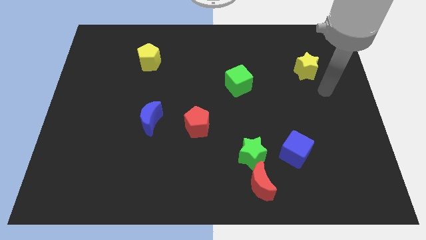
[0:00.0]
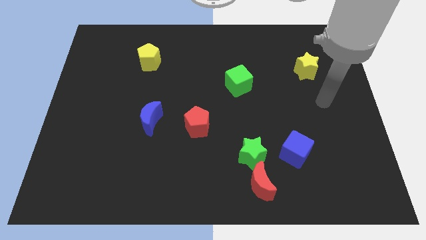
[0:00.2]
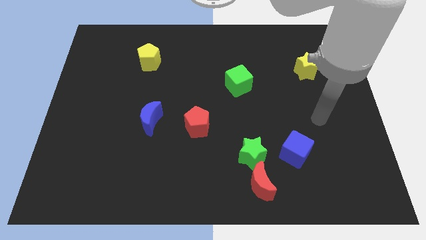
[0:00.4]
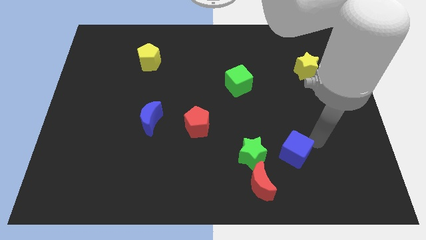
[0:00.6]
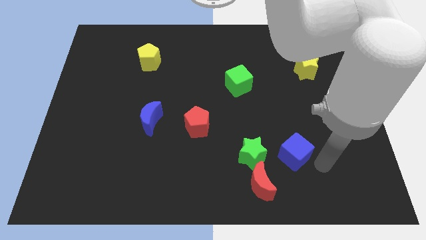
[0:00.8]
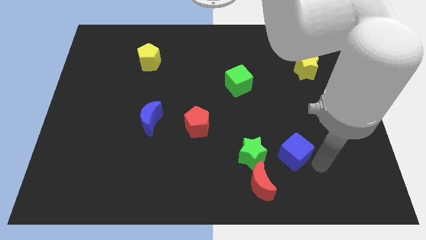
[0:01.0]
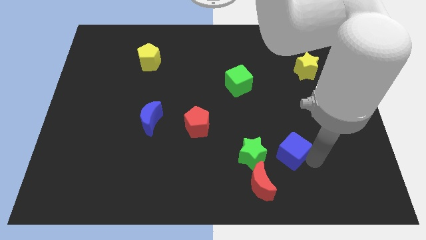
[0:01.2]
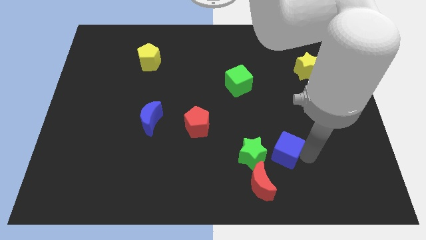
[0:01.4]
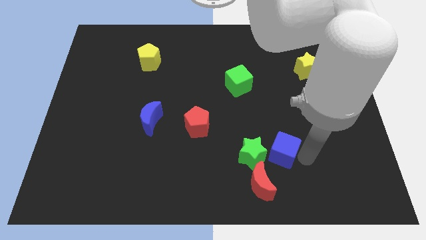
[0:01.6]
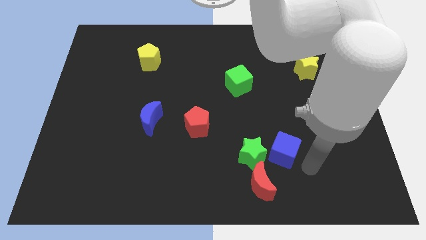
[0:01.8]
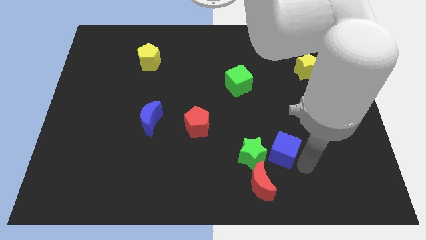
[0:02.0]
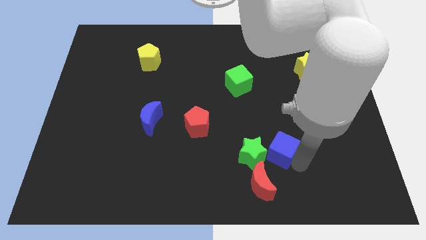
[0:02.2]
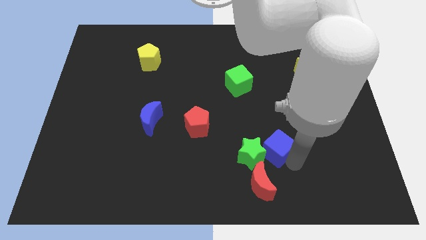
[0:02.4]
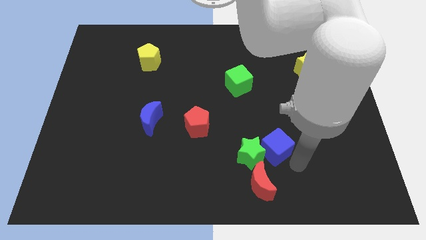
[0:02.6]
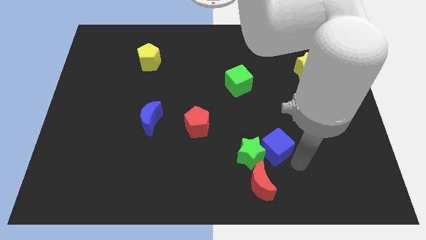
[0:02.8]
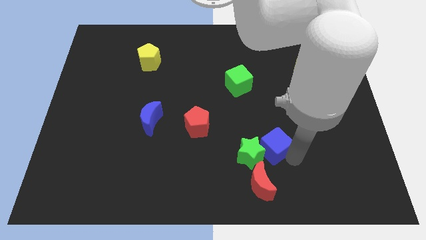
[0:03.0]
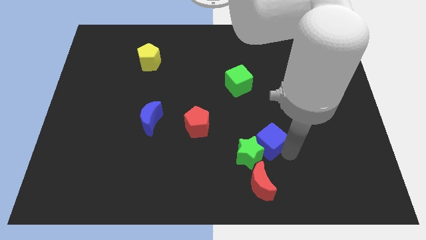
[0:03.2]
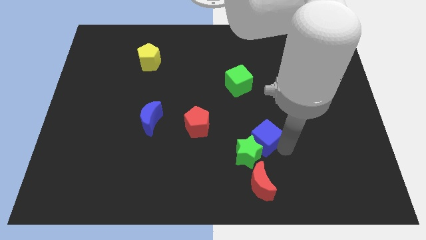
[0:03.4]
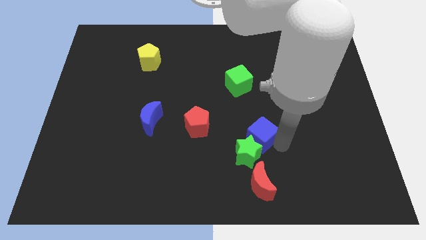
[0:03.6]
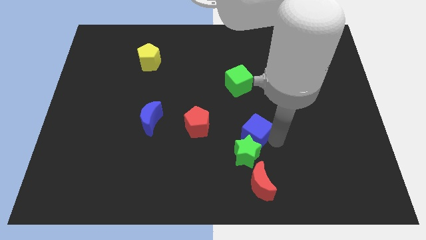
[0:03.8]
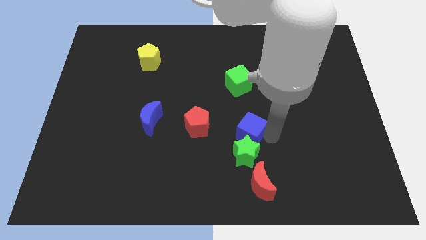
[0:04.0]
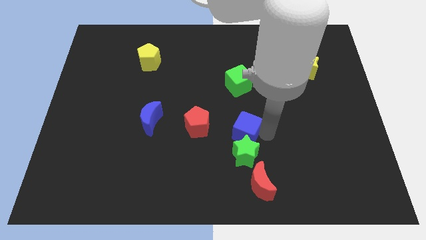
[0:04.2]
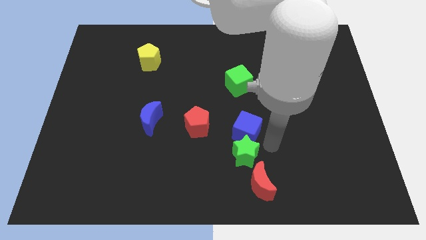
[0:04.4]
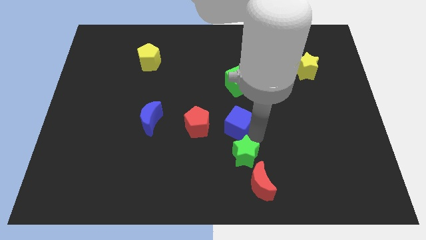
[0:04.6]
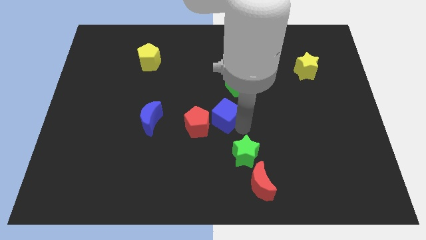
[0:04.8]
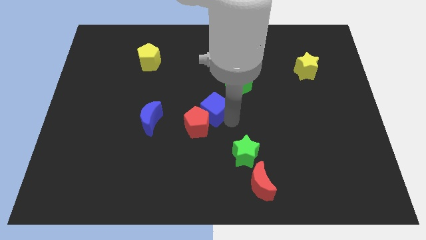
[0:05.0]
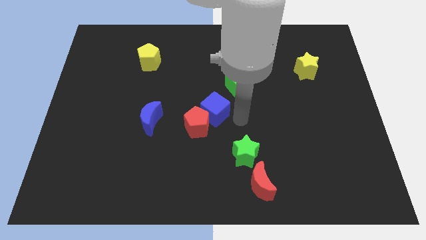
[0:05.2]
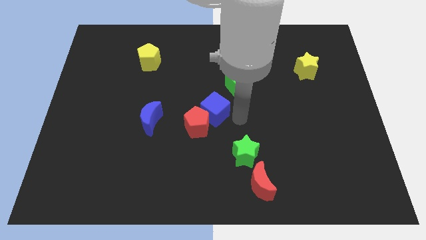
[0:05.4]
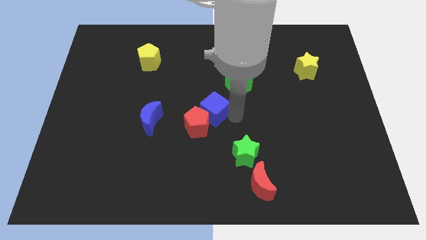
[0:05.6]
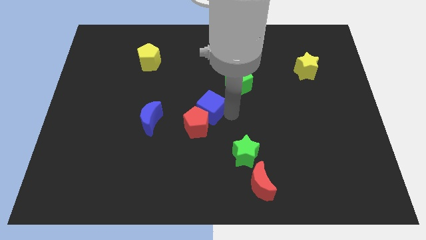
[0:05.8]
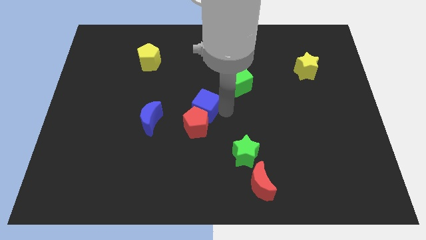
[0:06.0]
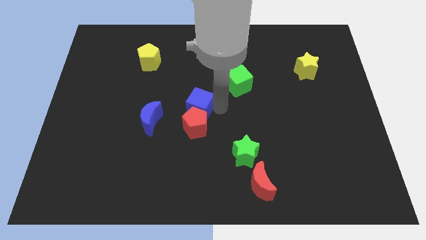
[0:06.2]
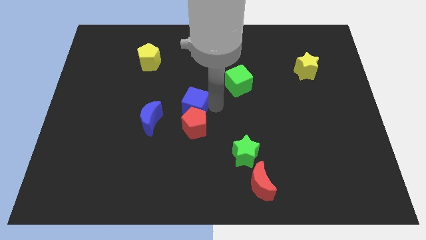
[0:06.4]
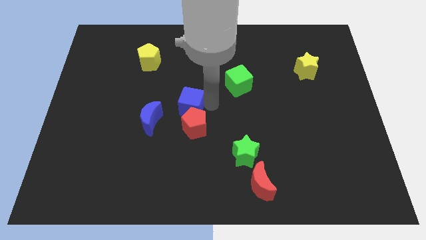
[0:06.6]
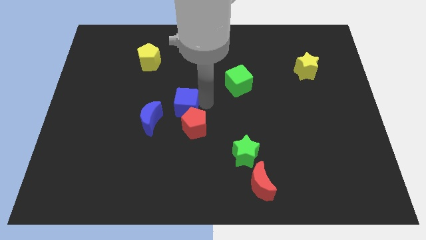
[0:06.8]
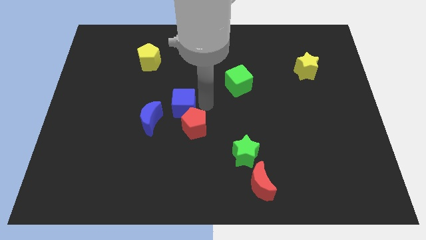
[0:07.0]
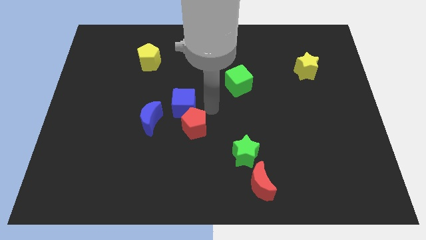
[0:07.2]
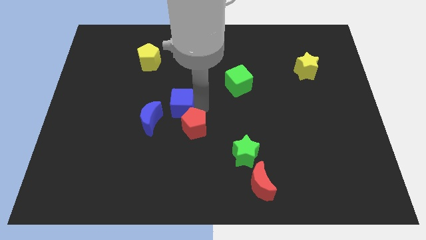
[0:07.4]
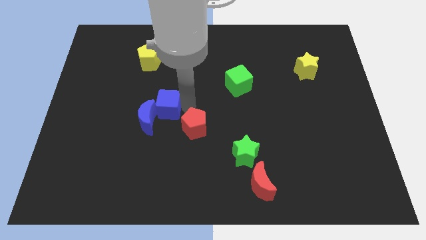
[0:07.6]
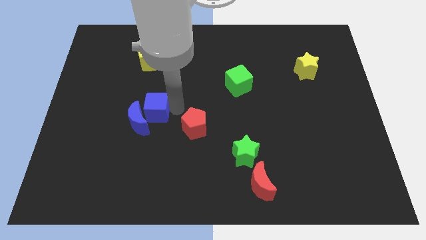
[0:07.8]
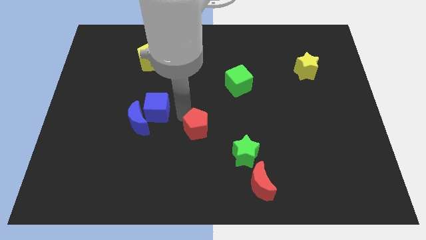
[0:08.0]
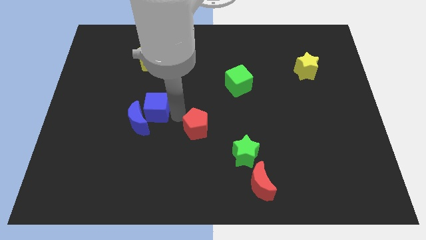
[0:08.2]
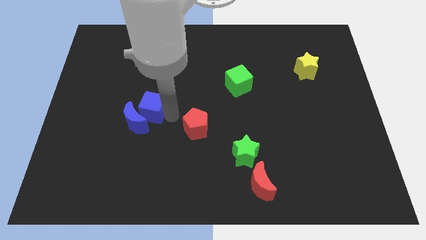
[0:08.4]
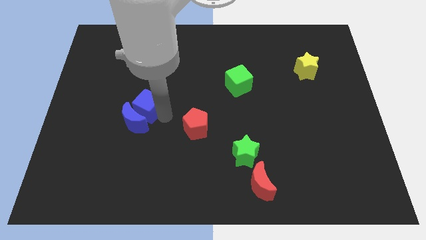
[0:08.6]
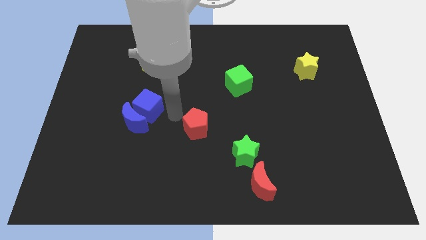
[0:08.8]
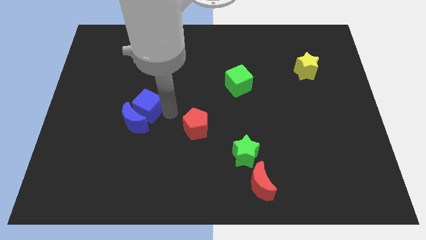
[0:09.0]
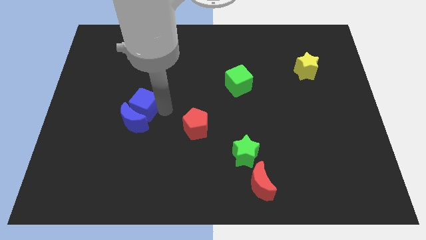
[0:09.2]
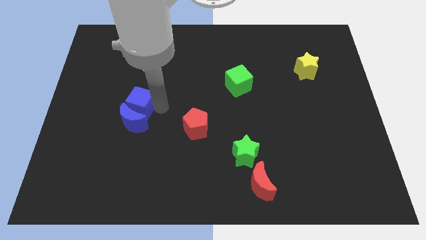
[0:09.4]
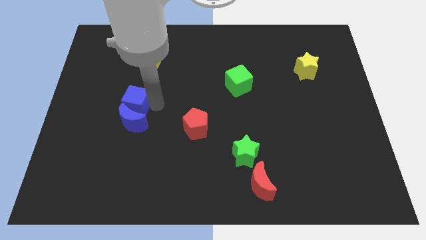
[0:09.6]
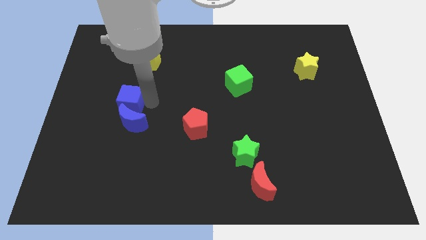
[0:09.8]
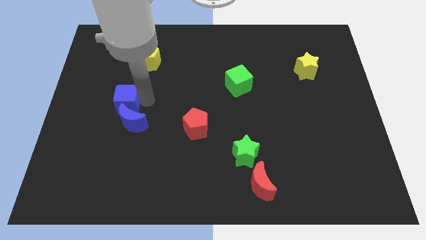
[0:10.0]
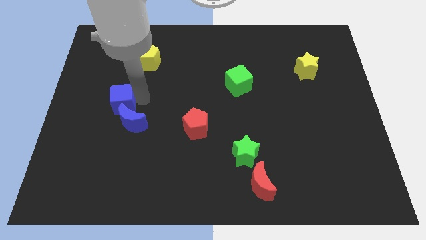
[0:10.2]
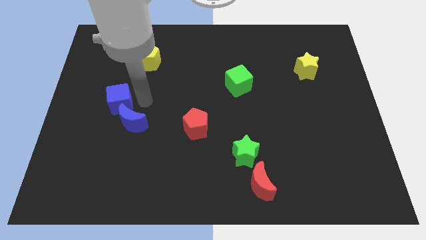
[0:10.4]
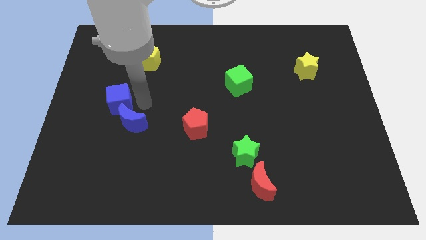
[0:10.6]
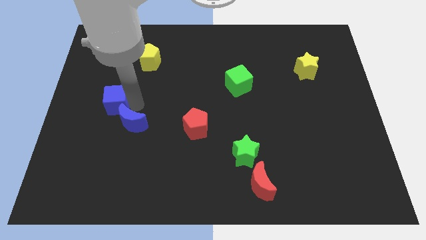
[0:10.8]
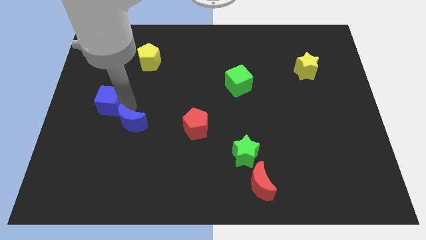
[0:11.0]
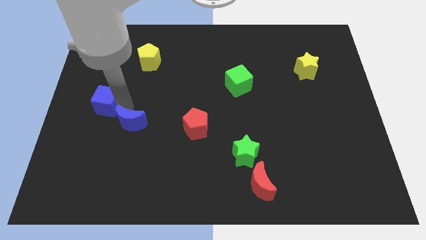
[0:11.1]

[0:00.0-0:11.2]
push the blue cube to the left side

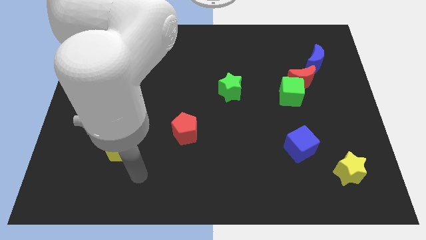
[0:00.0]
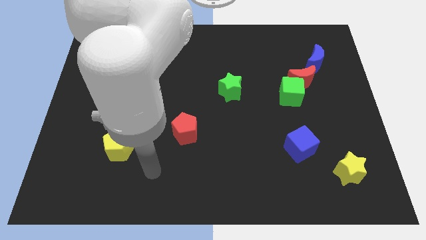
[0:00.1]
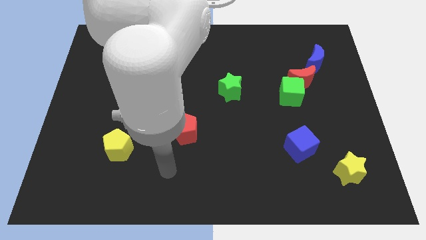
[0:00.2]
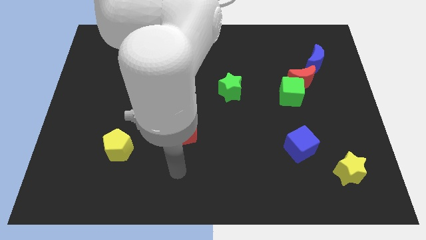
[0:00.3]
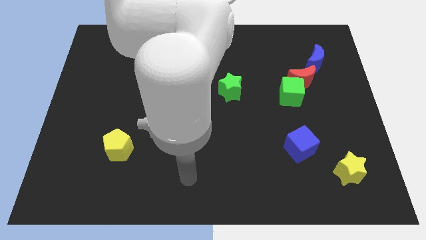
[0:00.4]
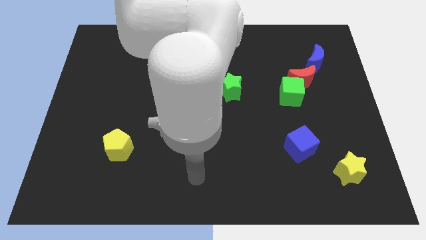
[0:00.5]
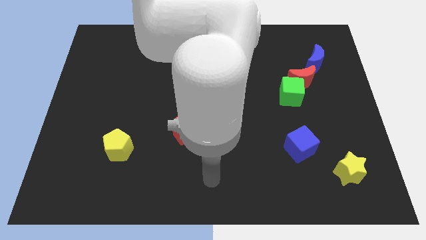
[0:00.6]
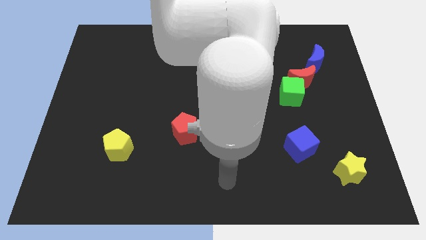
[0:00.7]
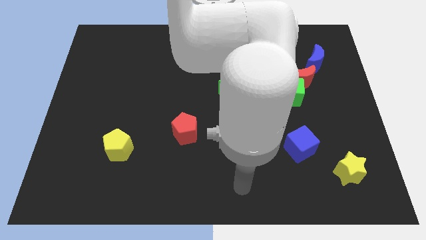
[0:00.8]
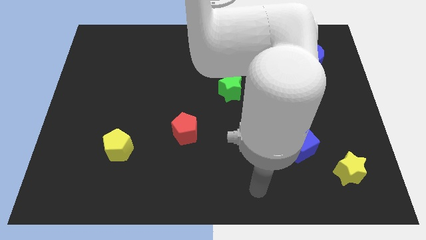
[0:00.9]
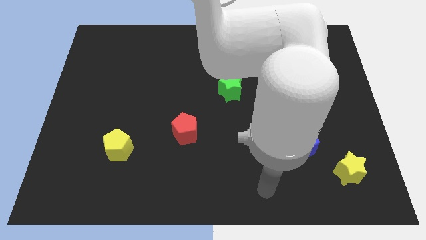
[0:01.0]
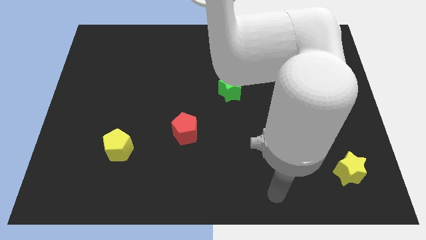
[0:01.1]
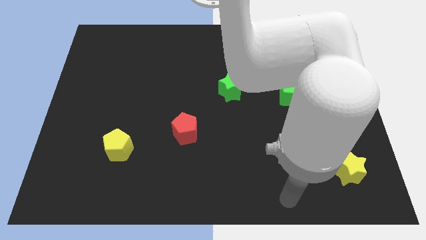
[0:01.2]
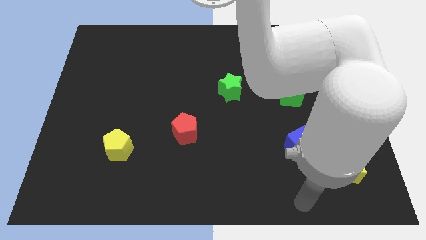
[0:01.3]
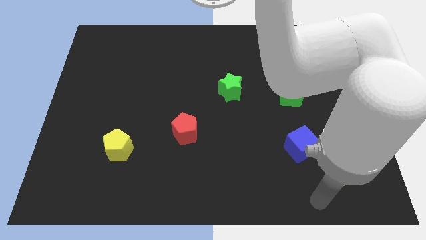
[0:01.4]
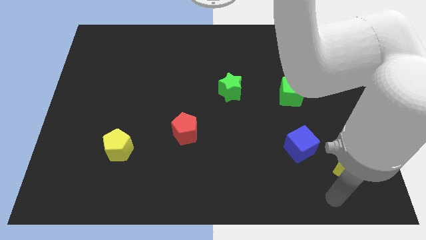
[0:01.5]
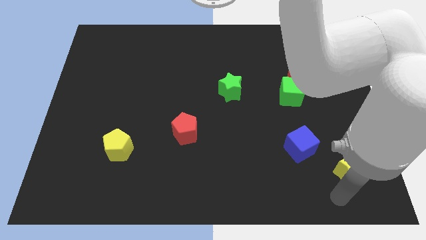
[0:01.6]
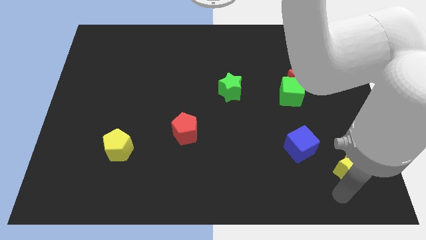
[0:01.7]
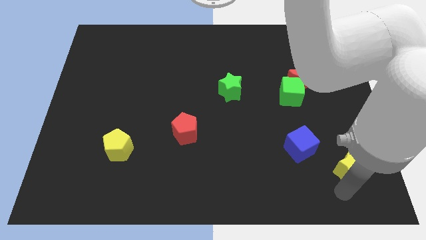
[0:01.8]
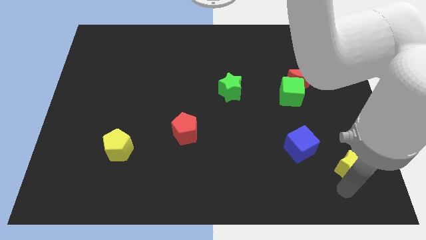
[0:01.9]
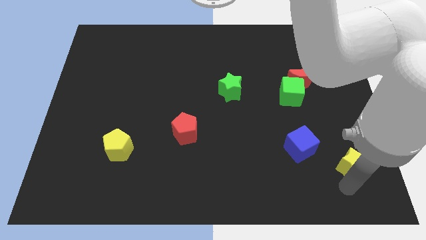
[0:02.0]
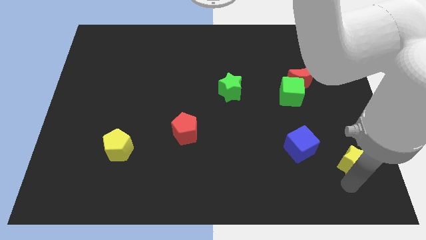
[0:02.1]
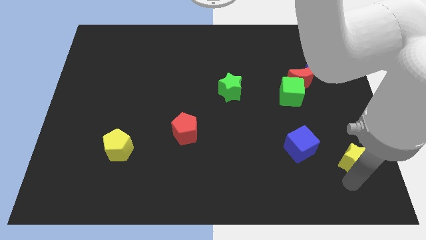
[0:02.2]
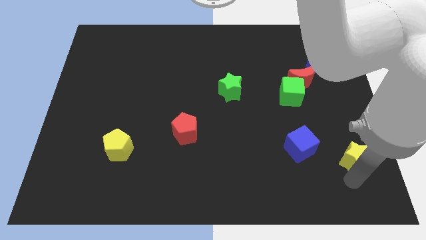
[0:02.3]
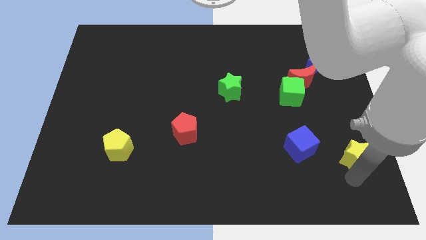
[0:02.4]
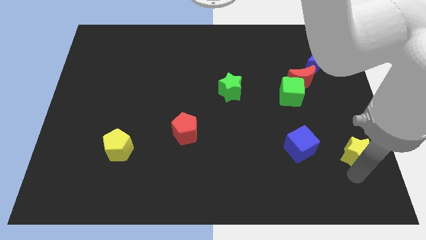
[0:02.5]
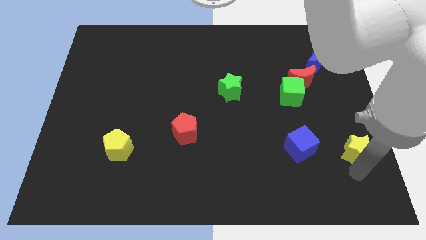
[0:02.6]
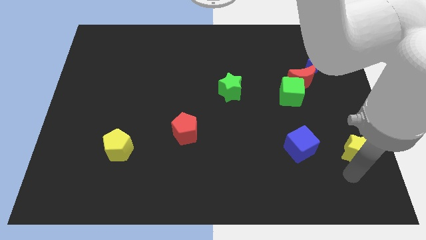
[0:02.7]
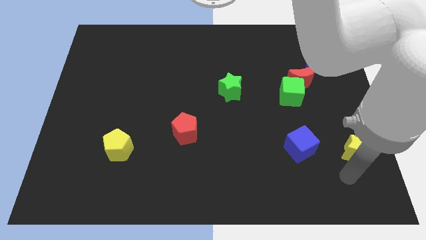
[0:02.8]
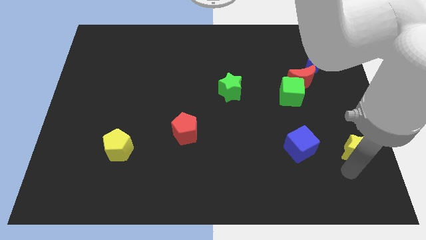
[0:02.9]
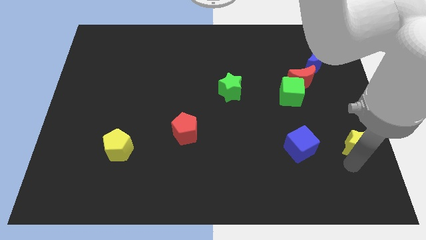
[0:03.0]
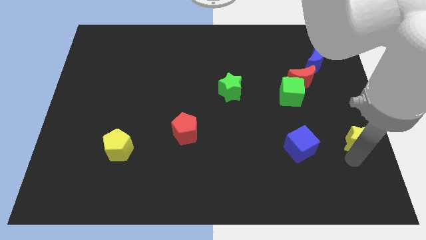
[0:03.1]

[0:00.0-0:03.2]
move the yellow star to the right side of the board
